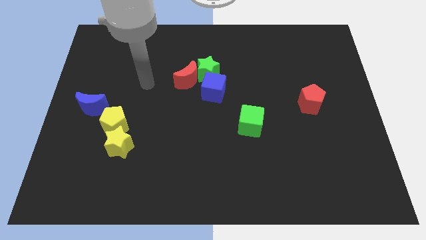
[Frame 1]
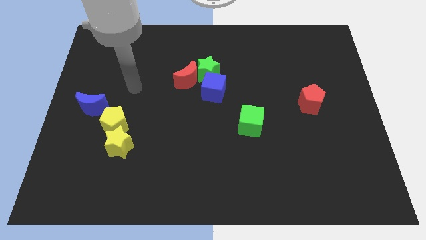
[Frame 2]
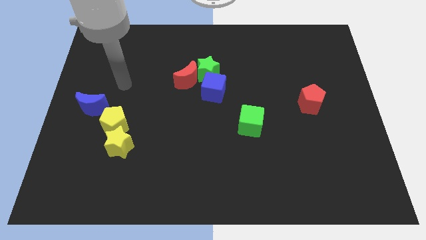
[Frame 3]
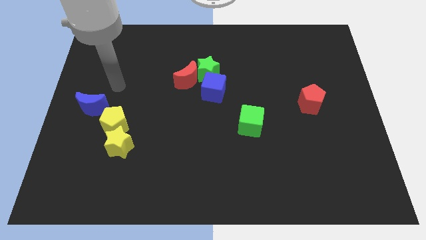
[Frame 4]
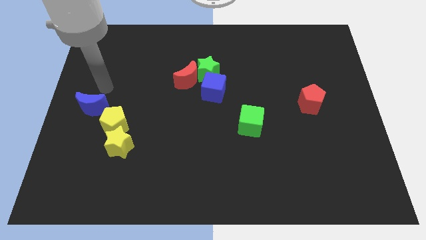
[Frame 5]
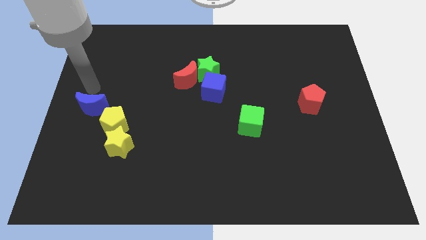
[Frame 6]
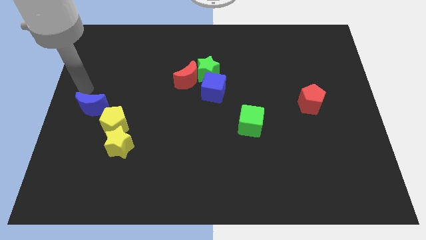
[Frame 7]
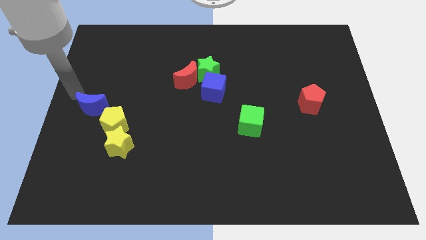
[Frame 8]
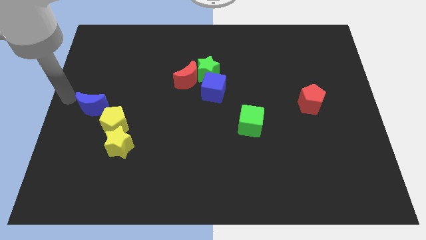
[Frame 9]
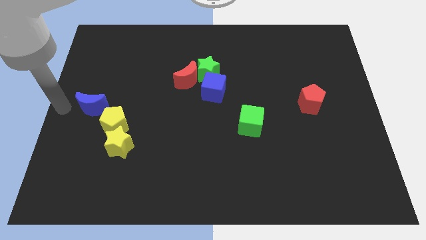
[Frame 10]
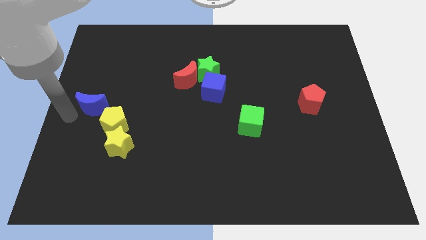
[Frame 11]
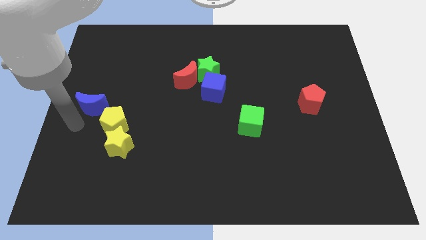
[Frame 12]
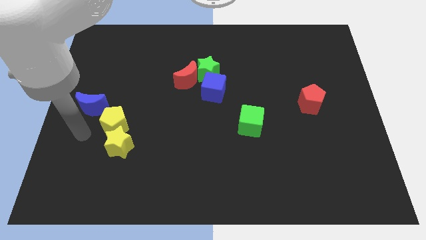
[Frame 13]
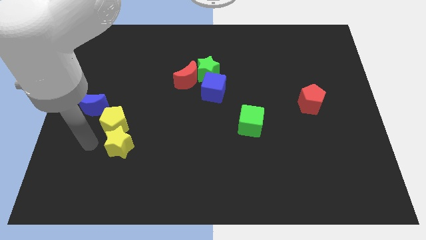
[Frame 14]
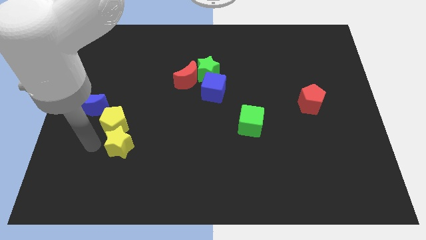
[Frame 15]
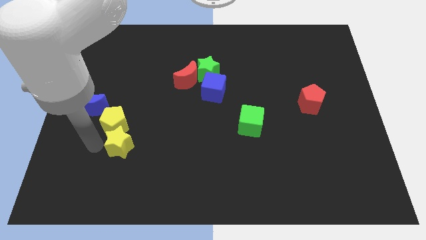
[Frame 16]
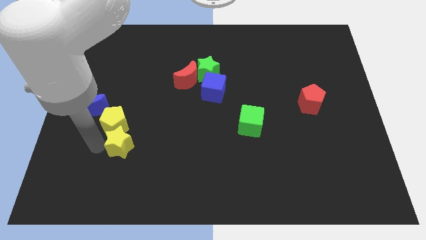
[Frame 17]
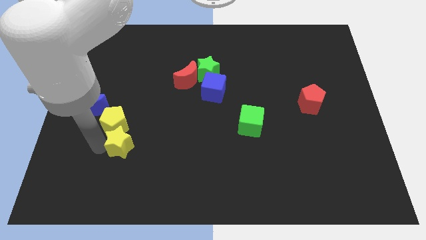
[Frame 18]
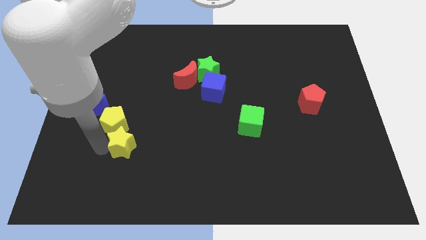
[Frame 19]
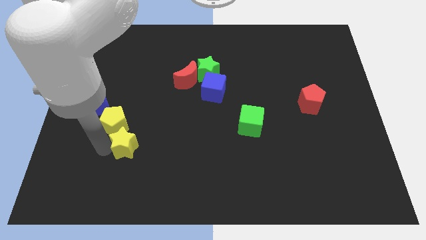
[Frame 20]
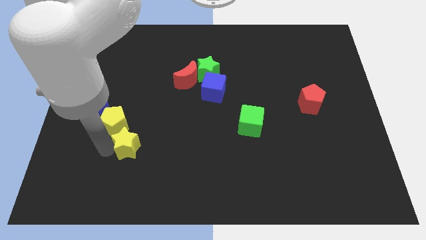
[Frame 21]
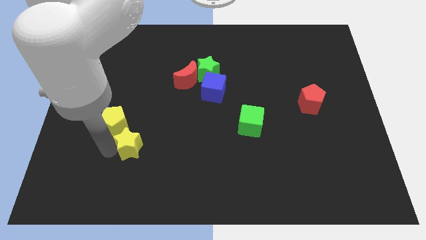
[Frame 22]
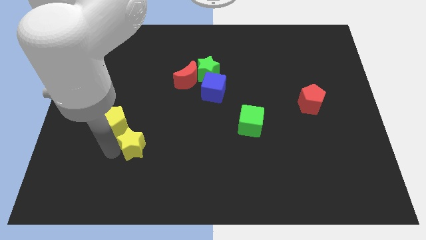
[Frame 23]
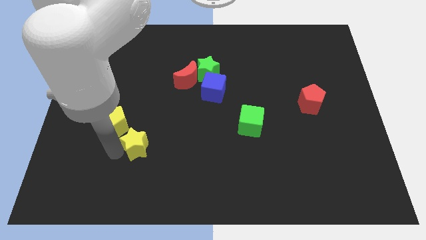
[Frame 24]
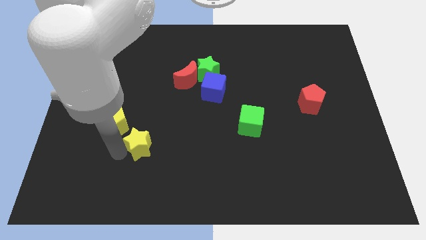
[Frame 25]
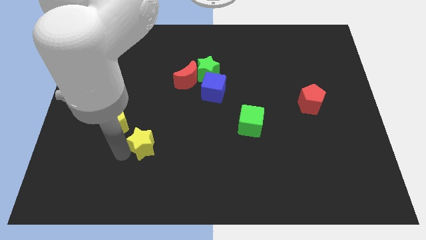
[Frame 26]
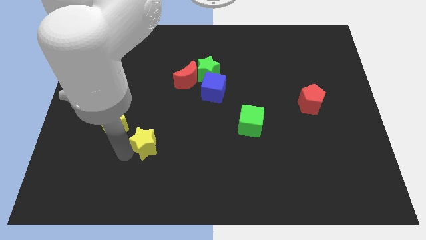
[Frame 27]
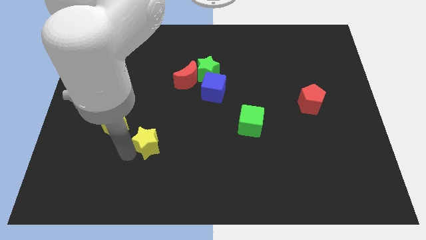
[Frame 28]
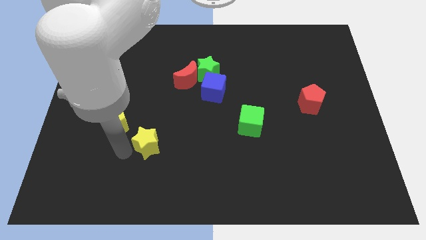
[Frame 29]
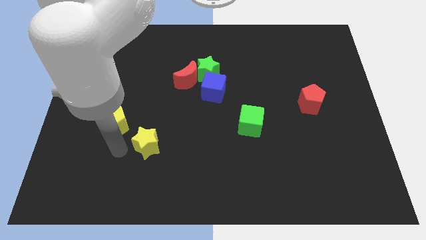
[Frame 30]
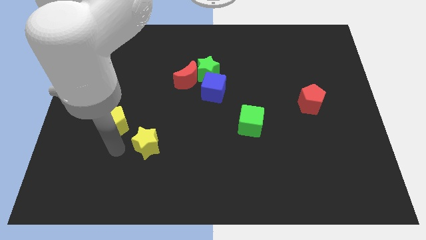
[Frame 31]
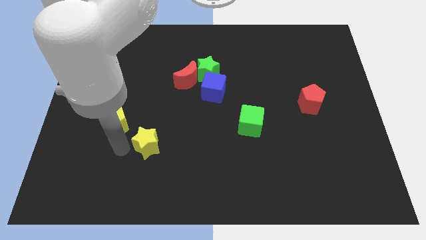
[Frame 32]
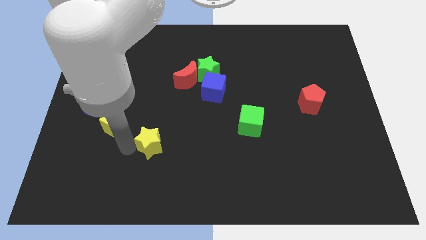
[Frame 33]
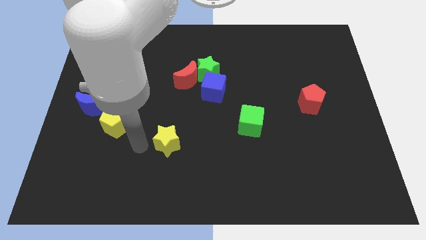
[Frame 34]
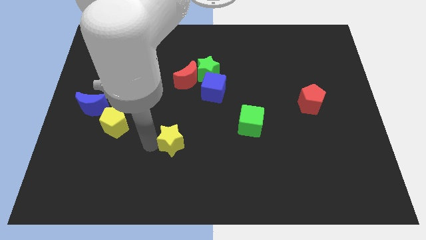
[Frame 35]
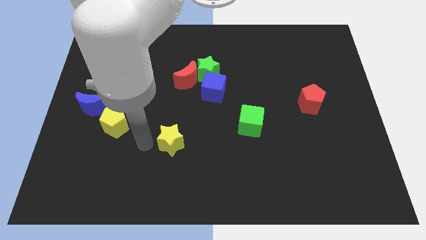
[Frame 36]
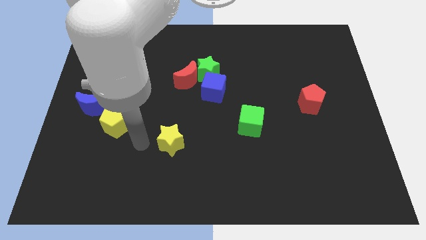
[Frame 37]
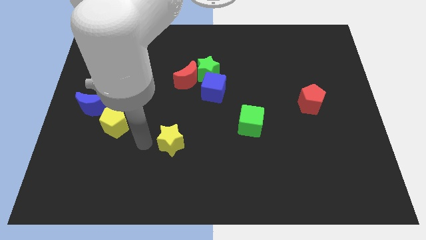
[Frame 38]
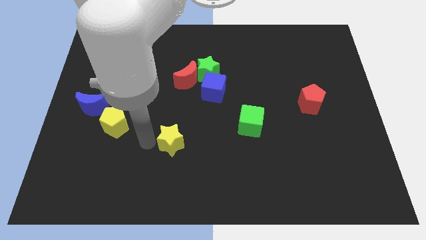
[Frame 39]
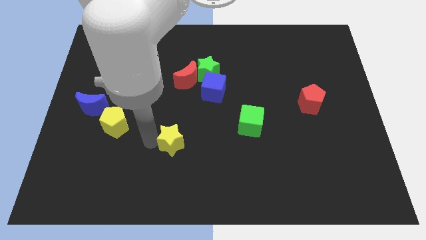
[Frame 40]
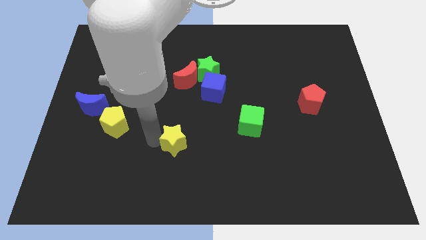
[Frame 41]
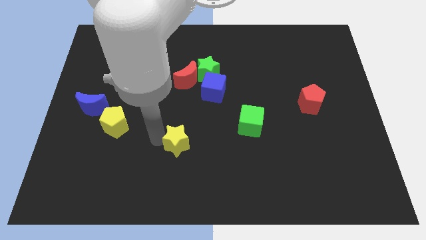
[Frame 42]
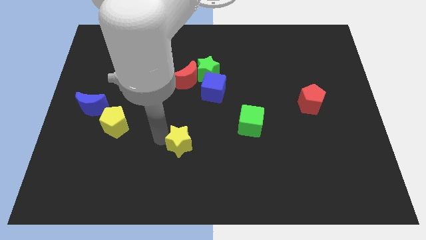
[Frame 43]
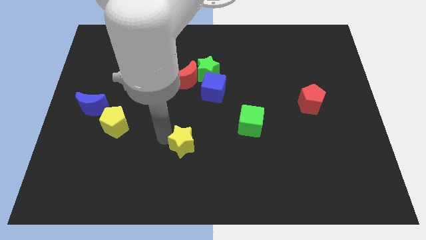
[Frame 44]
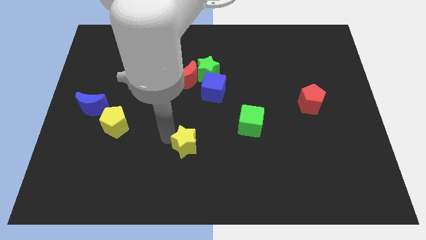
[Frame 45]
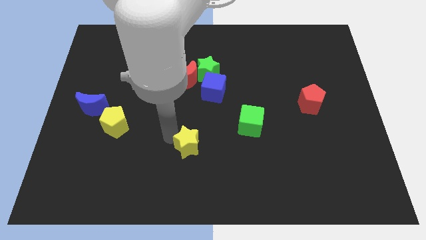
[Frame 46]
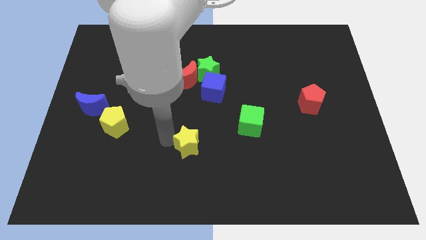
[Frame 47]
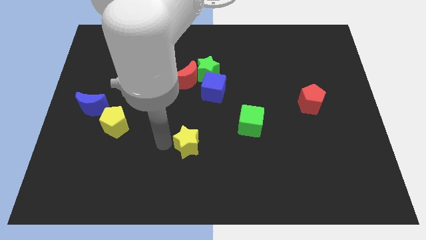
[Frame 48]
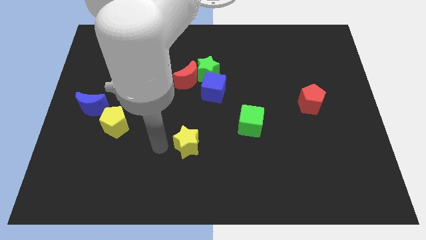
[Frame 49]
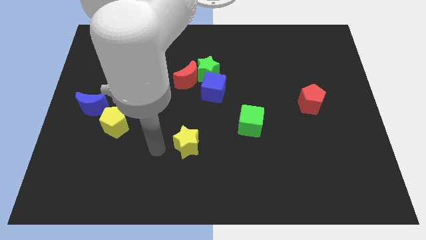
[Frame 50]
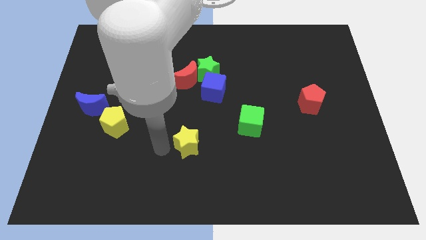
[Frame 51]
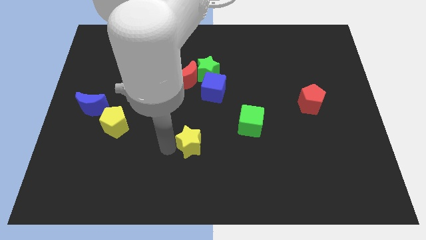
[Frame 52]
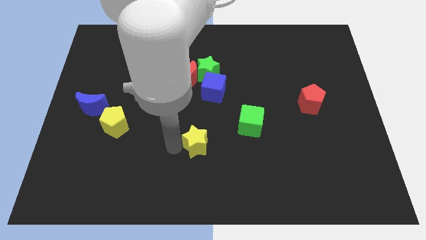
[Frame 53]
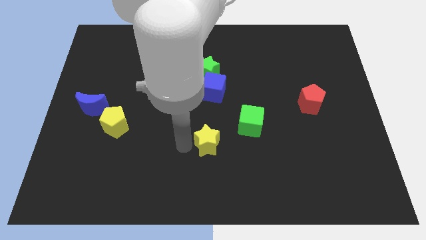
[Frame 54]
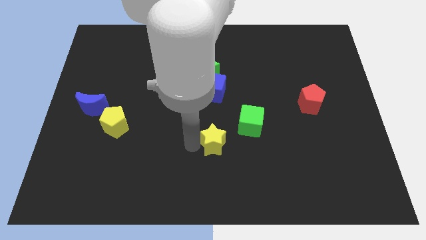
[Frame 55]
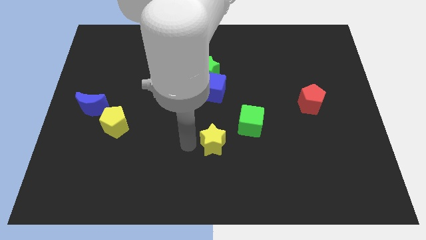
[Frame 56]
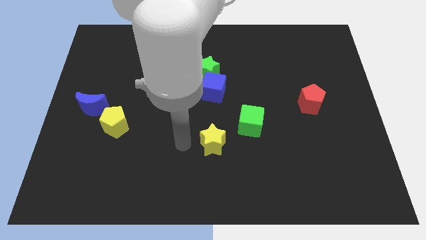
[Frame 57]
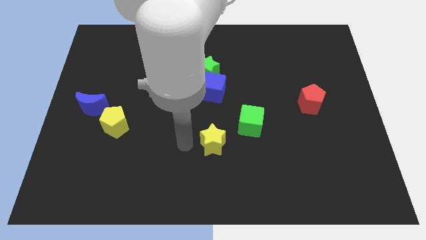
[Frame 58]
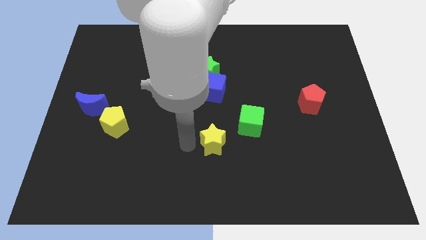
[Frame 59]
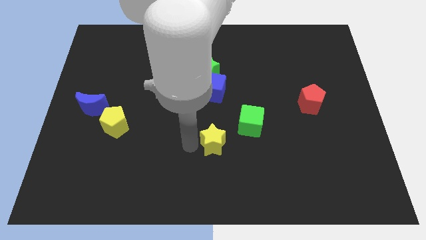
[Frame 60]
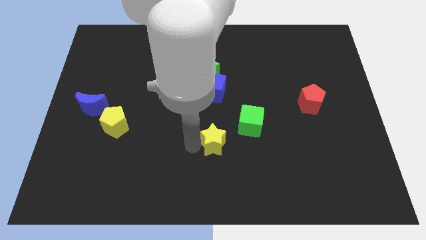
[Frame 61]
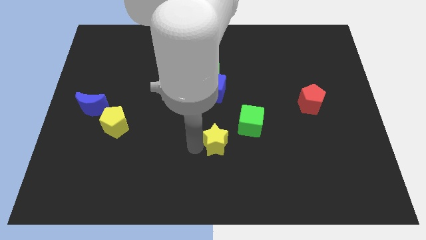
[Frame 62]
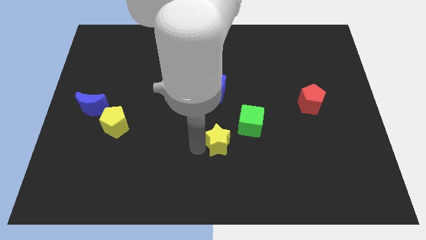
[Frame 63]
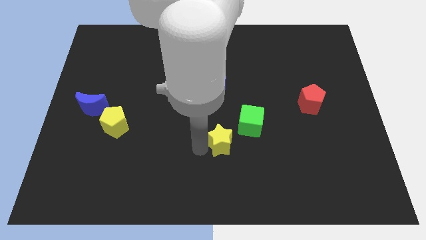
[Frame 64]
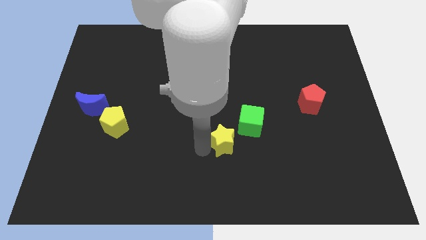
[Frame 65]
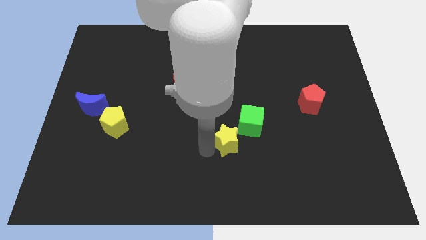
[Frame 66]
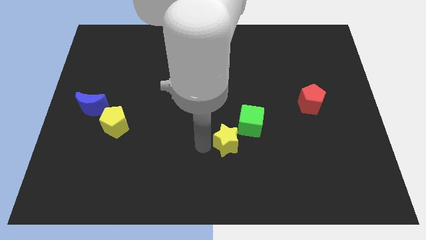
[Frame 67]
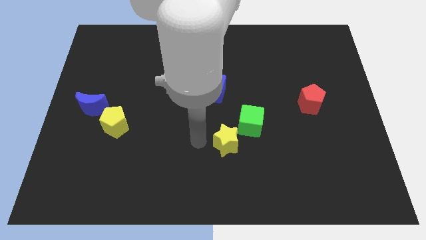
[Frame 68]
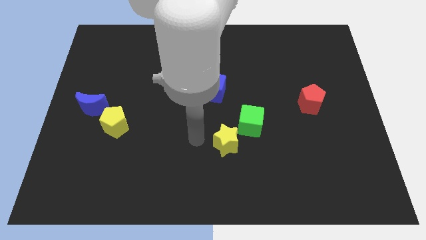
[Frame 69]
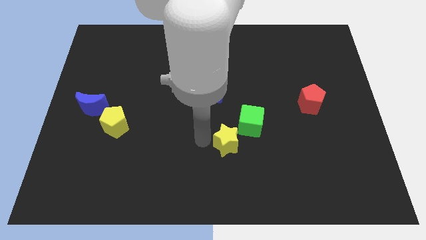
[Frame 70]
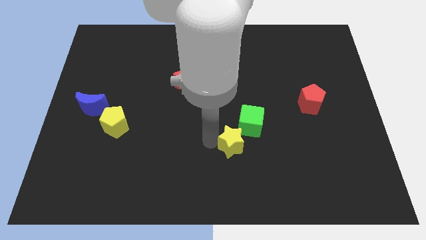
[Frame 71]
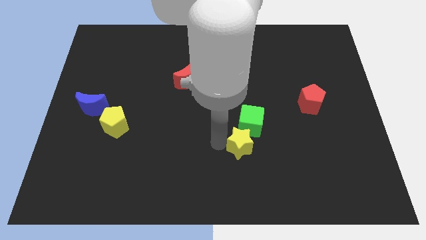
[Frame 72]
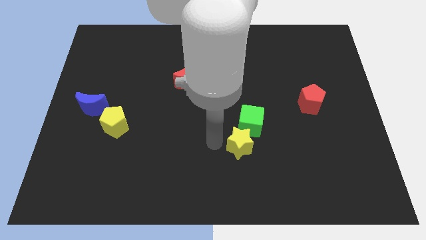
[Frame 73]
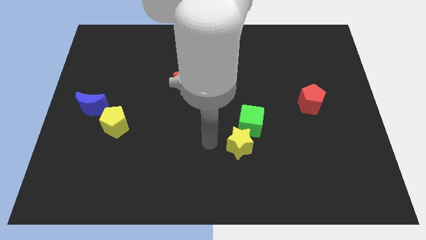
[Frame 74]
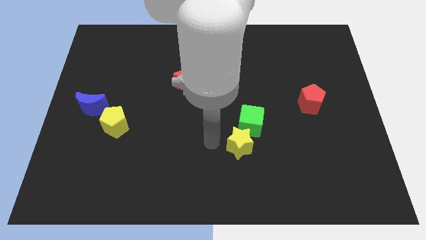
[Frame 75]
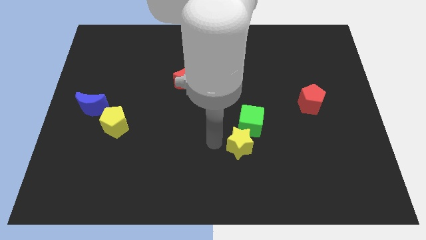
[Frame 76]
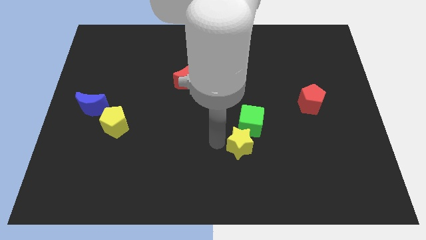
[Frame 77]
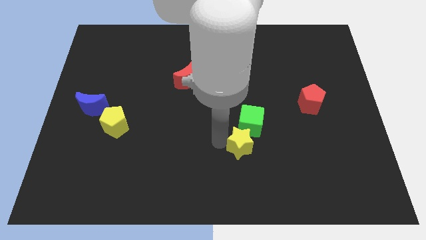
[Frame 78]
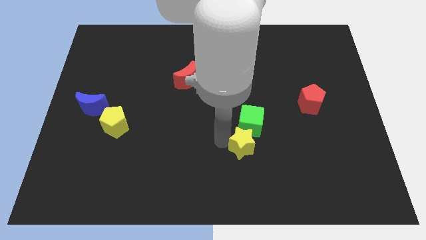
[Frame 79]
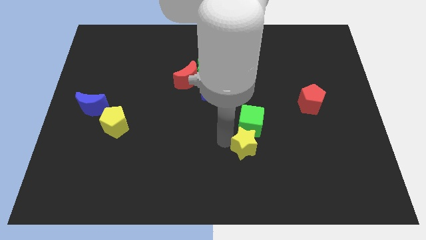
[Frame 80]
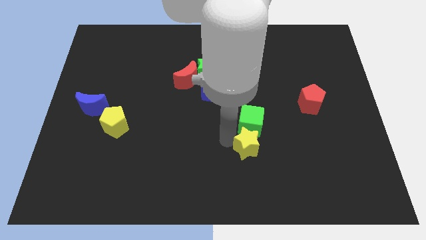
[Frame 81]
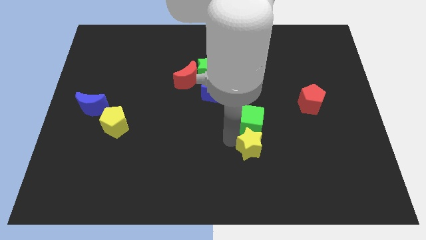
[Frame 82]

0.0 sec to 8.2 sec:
put the yellow star to the bottom right side of the green cube
